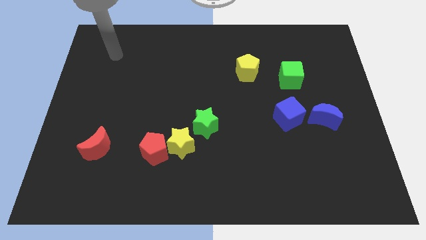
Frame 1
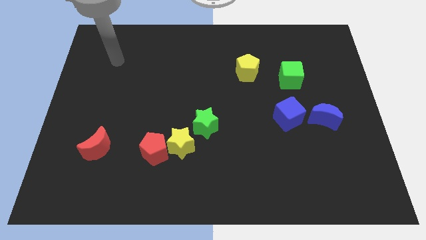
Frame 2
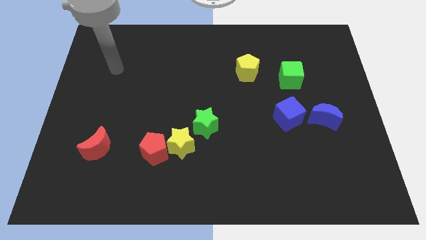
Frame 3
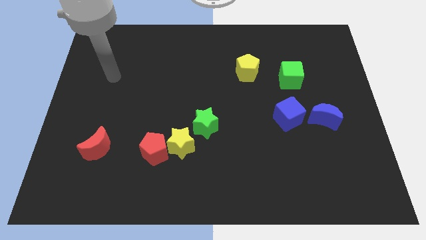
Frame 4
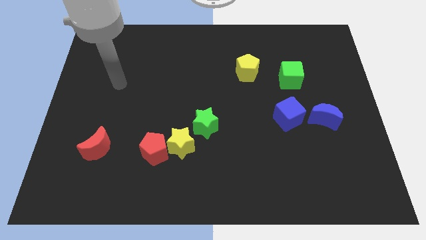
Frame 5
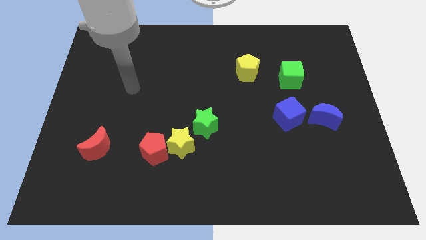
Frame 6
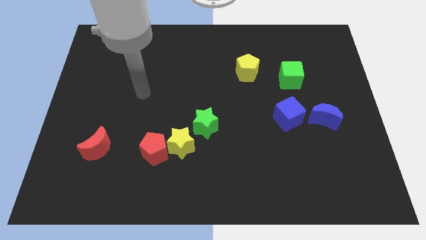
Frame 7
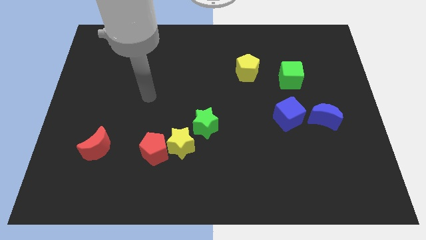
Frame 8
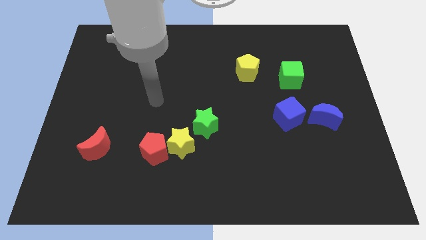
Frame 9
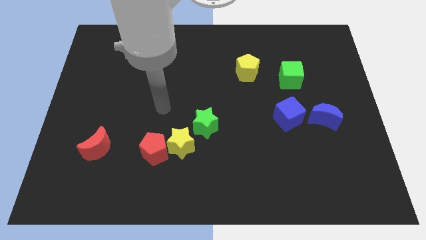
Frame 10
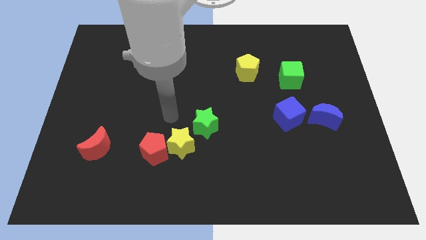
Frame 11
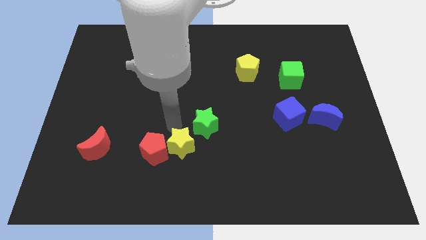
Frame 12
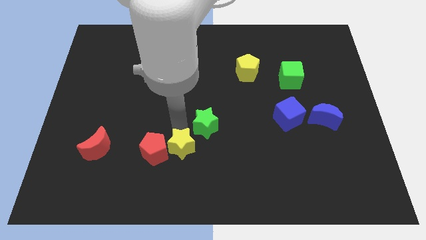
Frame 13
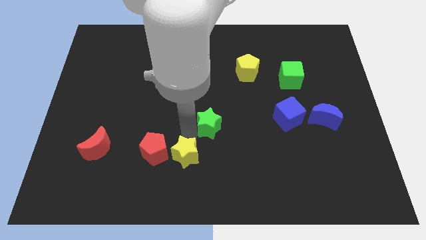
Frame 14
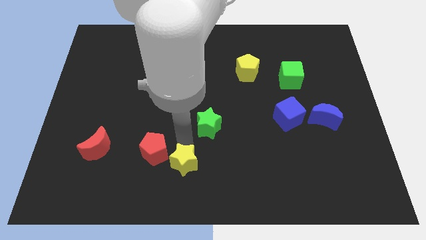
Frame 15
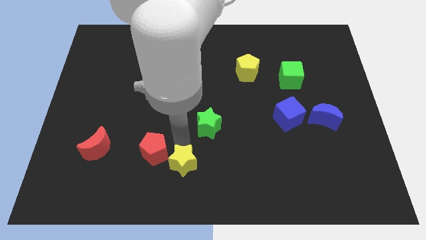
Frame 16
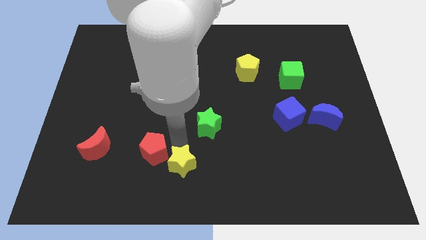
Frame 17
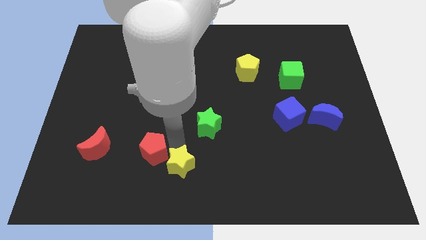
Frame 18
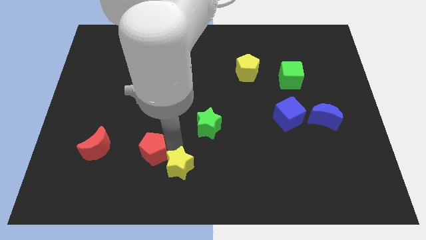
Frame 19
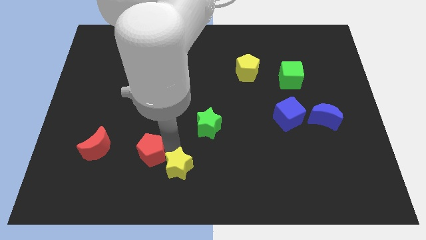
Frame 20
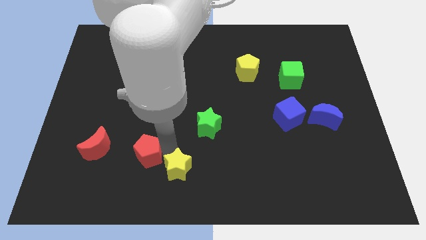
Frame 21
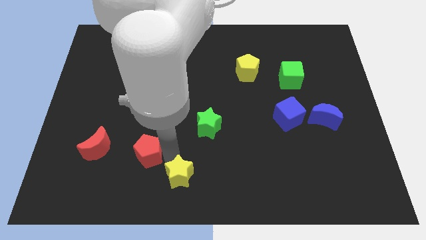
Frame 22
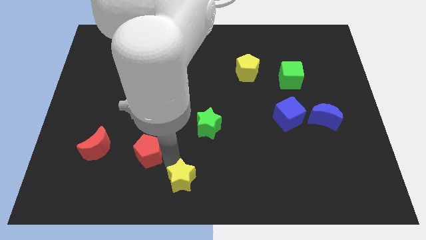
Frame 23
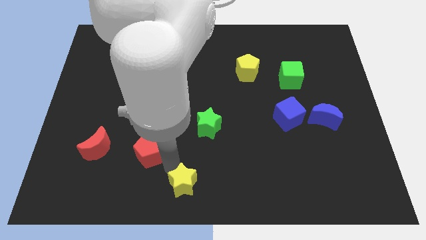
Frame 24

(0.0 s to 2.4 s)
move the red pentagon away from the yellow star

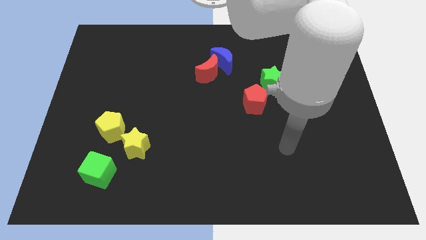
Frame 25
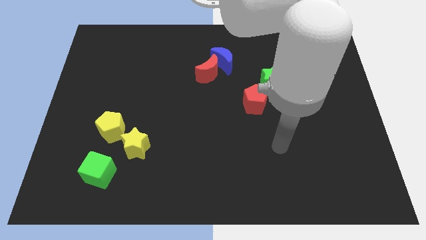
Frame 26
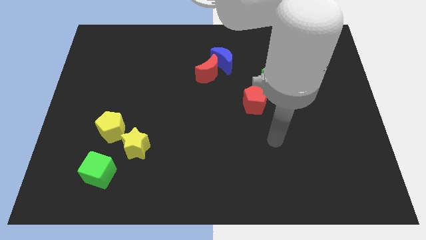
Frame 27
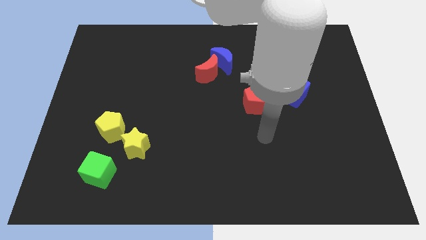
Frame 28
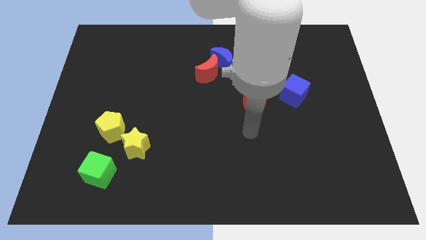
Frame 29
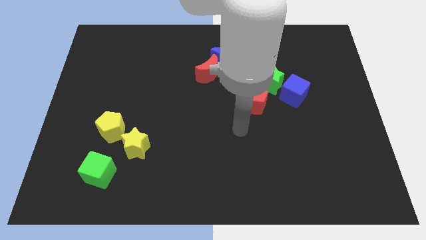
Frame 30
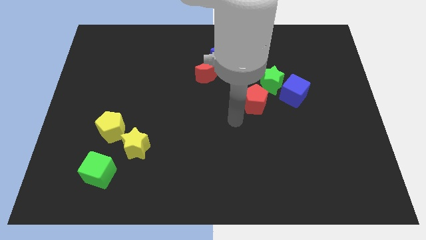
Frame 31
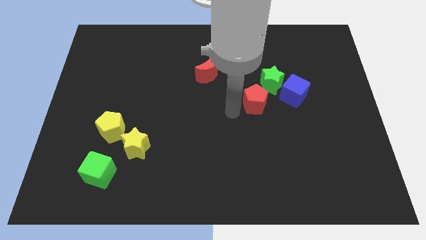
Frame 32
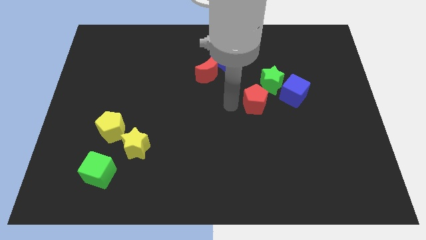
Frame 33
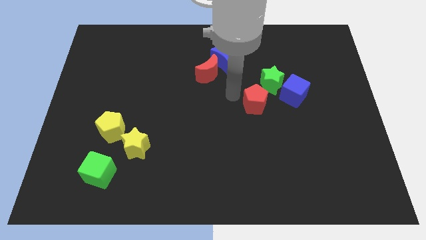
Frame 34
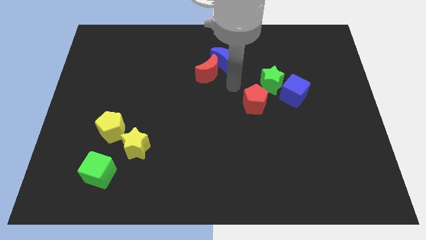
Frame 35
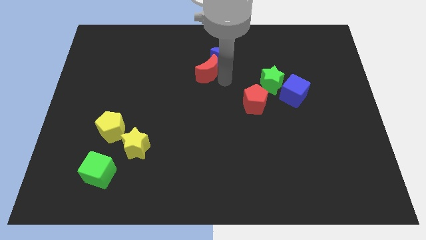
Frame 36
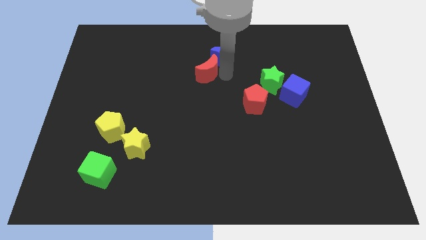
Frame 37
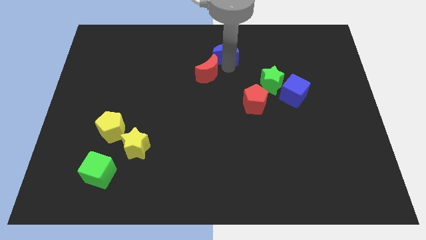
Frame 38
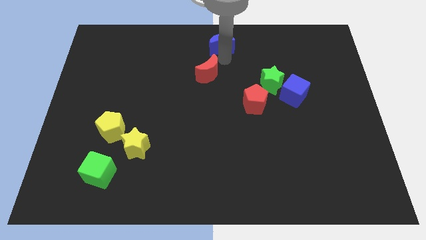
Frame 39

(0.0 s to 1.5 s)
separate the red moon from the blue moon

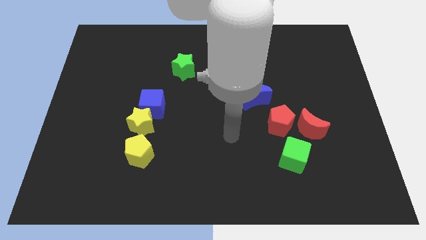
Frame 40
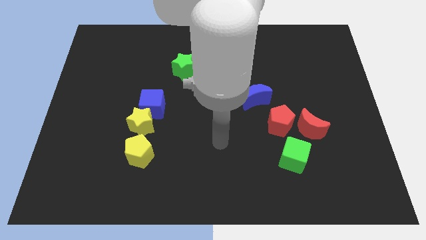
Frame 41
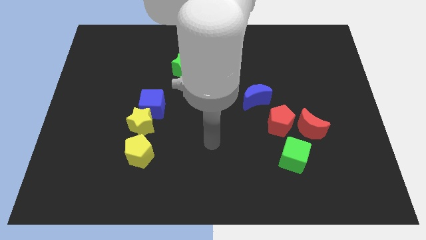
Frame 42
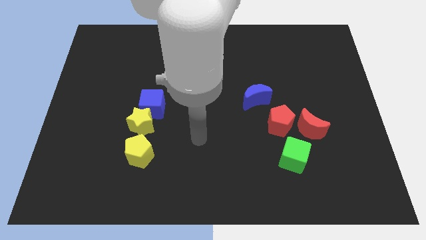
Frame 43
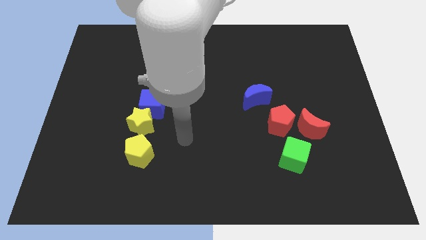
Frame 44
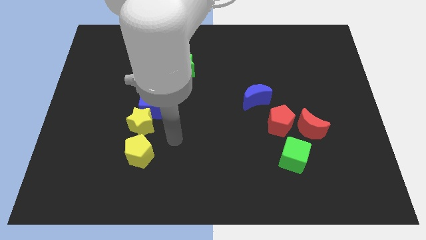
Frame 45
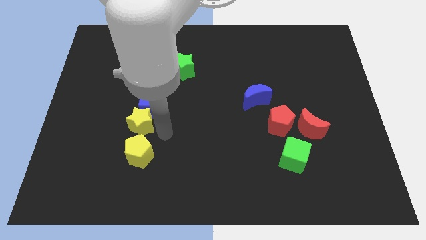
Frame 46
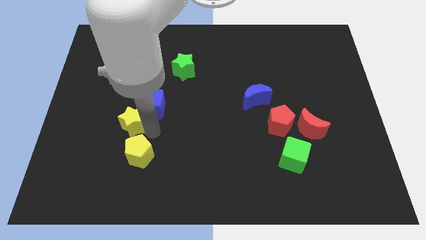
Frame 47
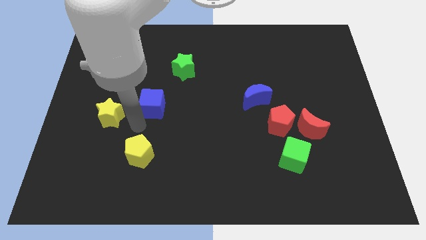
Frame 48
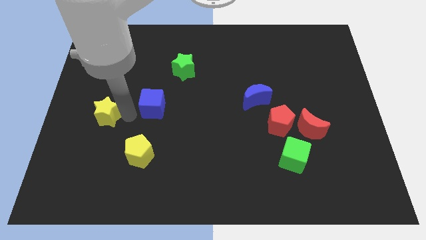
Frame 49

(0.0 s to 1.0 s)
pull the blue cube apart from the yellow star

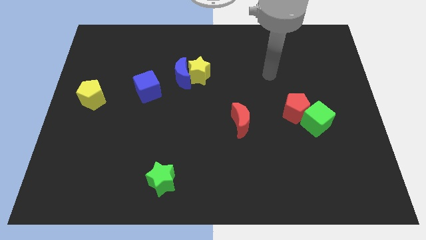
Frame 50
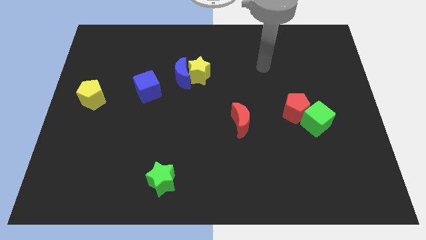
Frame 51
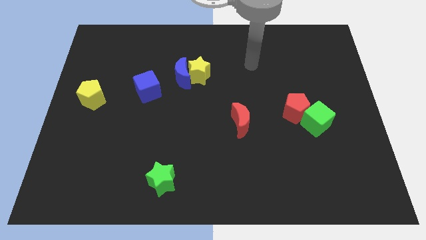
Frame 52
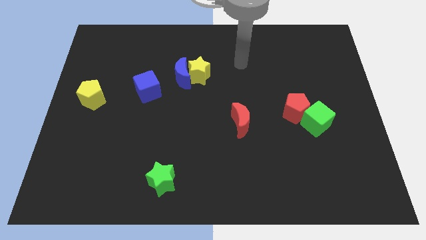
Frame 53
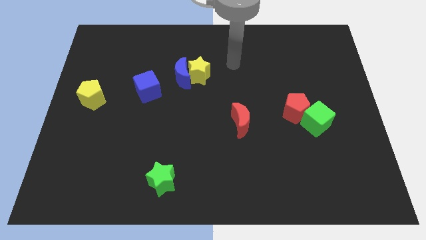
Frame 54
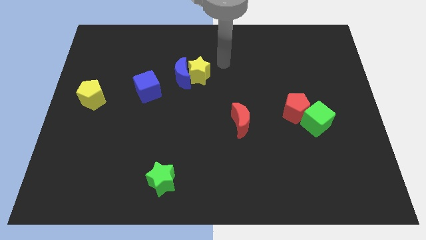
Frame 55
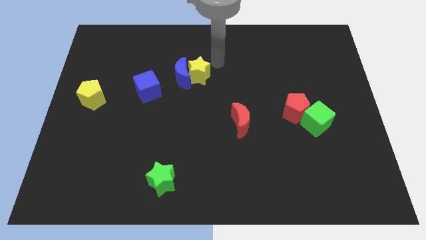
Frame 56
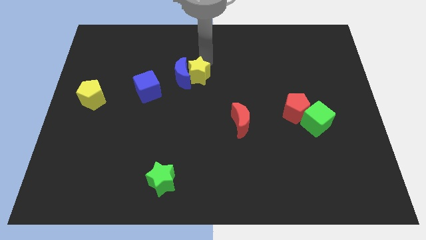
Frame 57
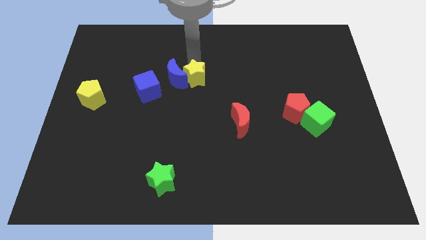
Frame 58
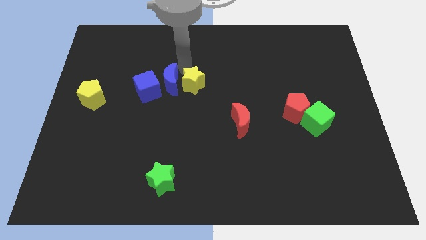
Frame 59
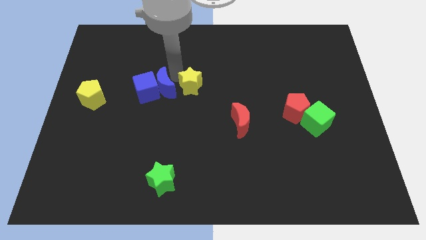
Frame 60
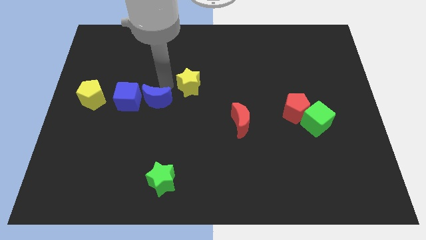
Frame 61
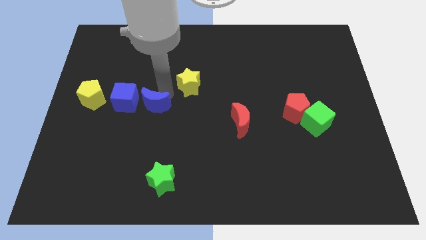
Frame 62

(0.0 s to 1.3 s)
move the yellow star away from the blue moon

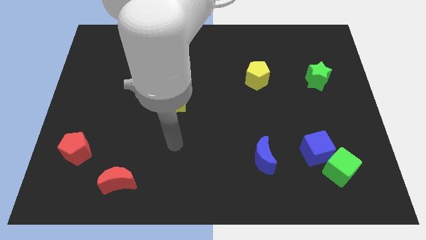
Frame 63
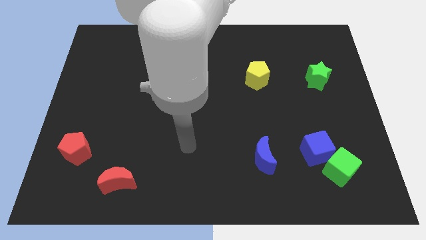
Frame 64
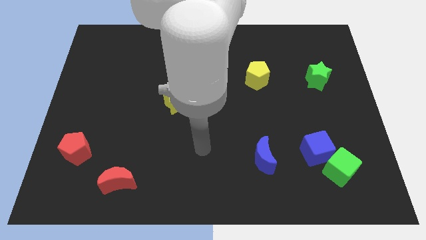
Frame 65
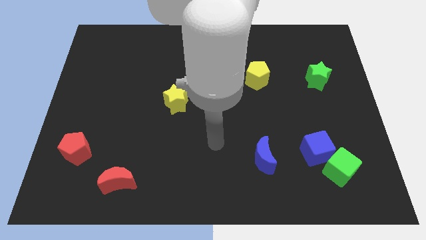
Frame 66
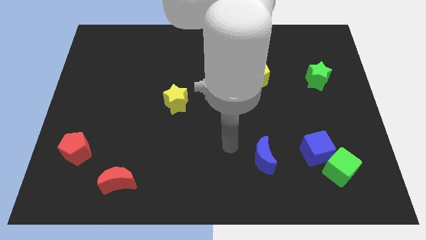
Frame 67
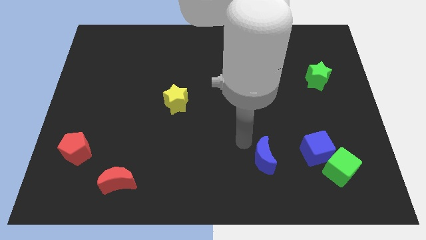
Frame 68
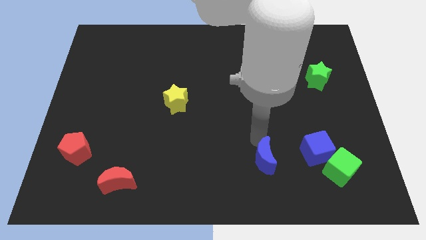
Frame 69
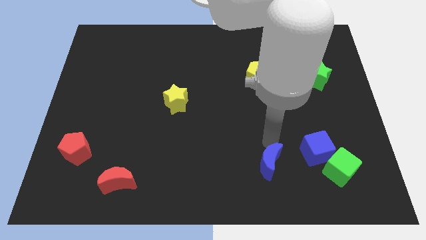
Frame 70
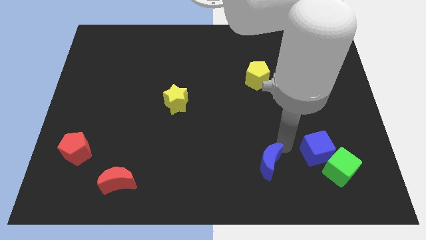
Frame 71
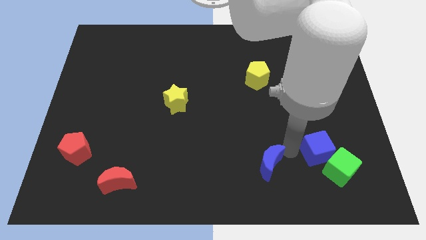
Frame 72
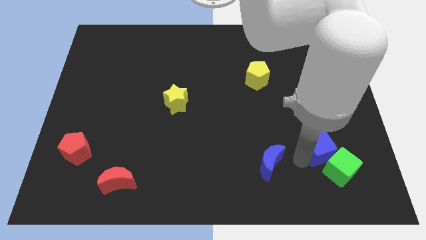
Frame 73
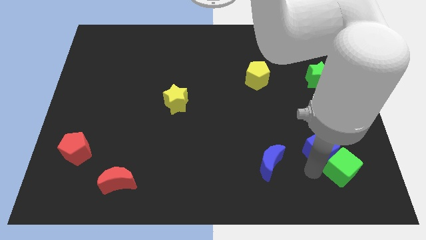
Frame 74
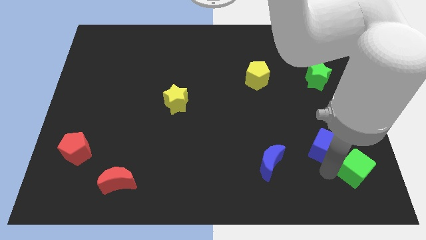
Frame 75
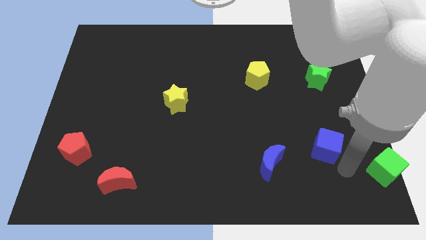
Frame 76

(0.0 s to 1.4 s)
move the blue cube away from the green cube

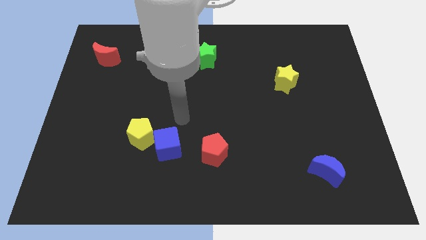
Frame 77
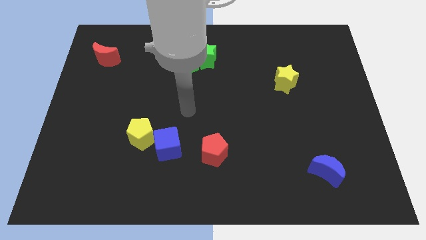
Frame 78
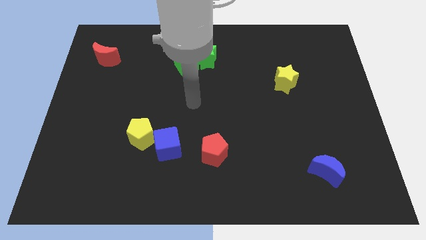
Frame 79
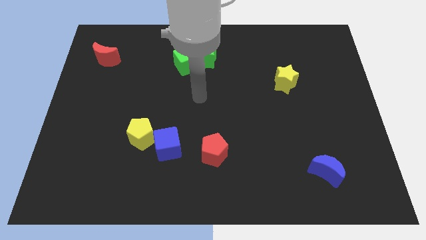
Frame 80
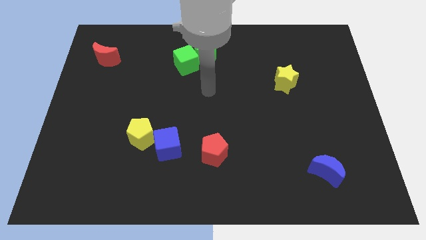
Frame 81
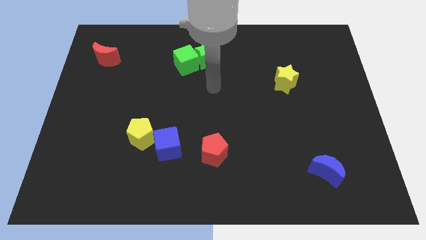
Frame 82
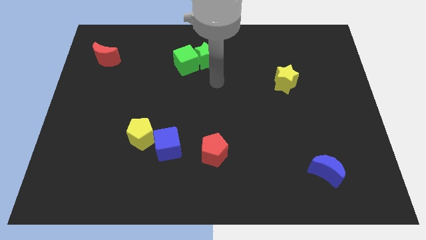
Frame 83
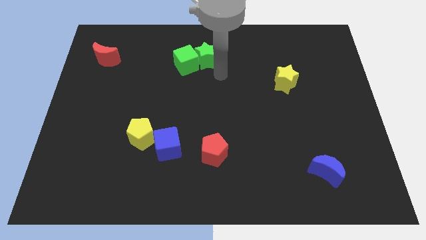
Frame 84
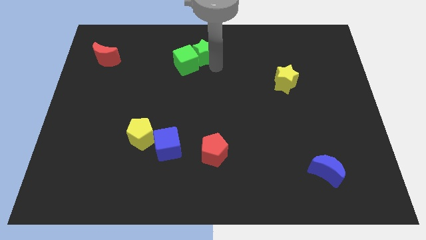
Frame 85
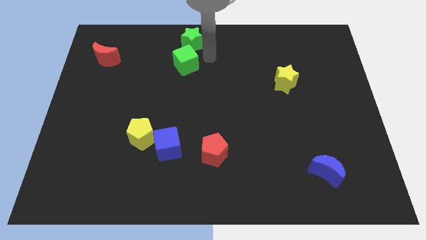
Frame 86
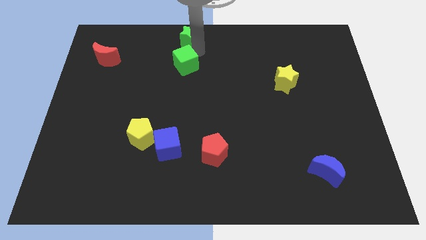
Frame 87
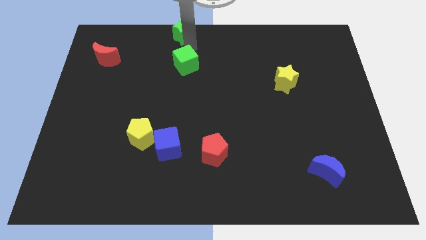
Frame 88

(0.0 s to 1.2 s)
move the green cube away from the green star

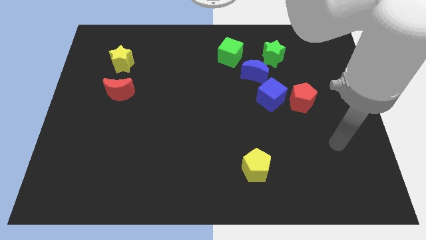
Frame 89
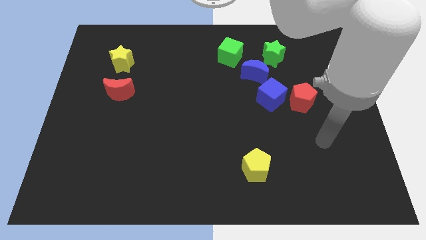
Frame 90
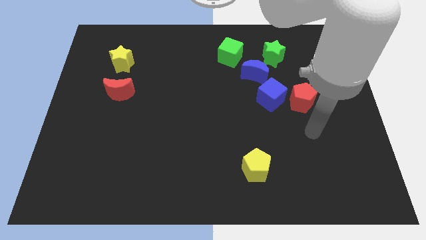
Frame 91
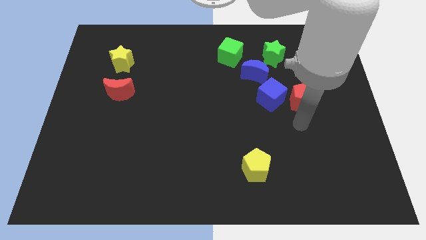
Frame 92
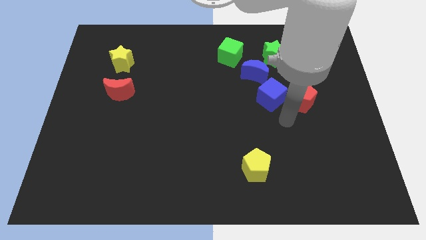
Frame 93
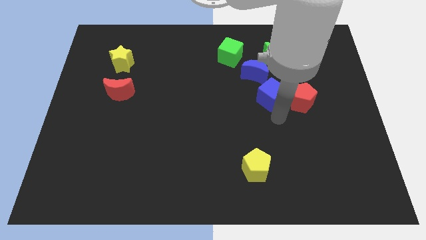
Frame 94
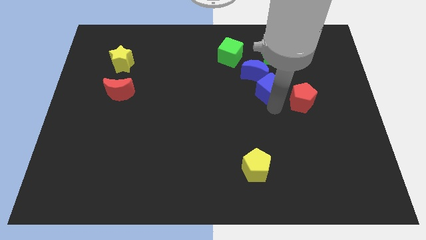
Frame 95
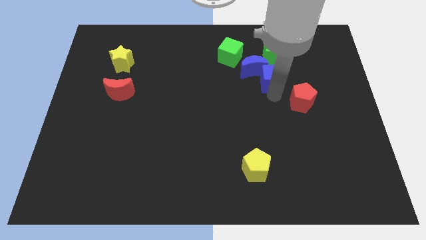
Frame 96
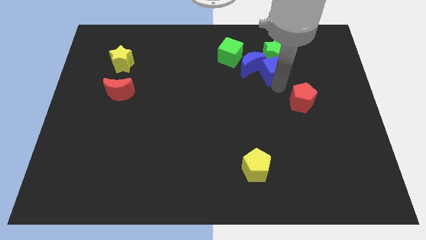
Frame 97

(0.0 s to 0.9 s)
move the red pentagon away from the blue cube
